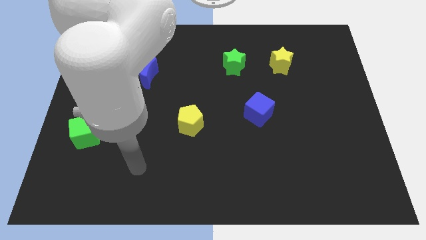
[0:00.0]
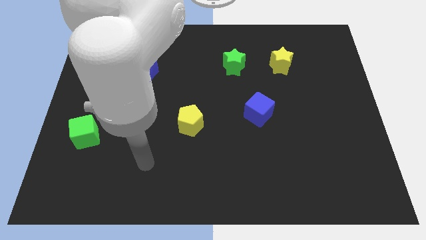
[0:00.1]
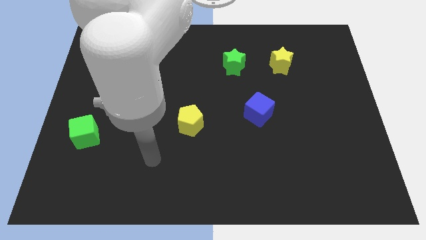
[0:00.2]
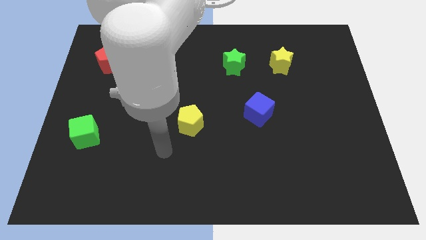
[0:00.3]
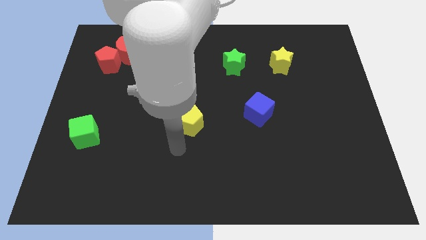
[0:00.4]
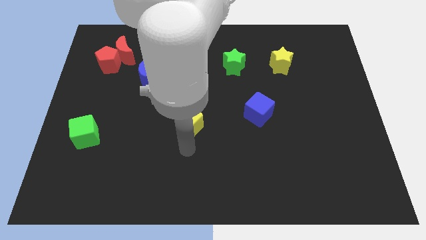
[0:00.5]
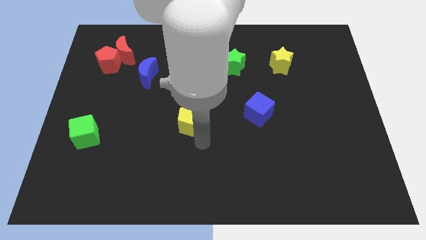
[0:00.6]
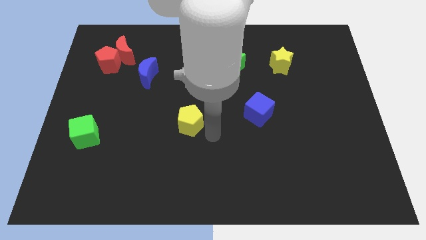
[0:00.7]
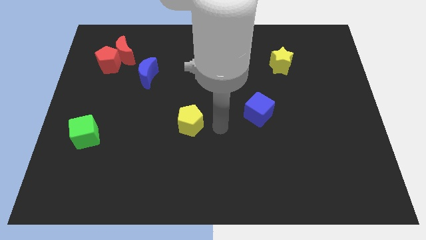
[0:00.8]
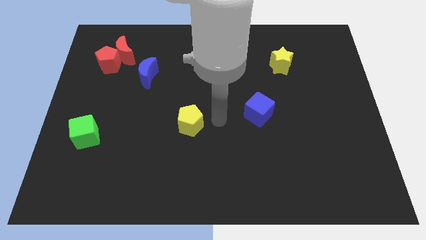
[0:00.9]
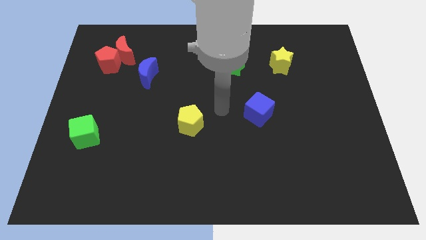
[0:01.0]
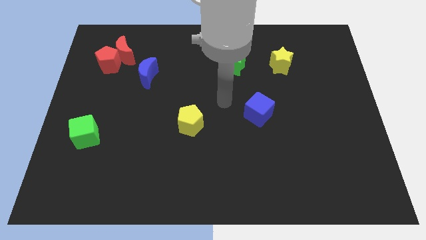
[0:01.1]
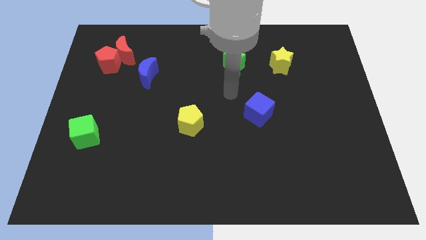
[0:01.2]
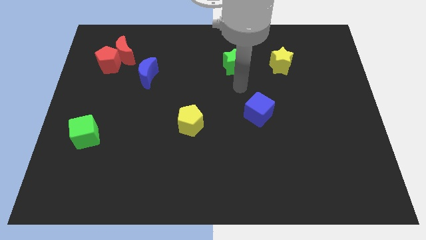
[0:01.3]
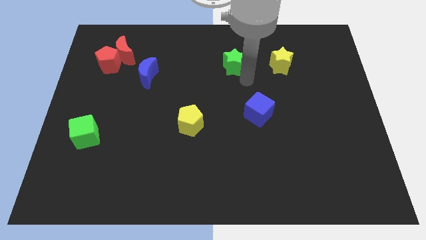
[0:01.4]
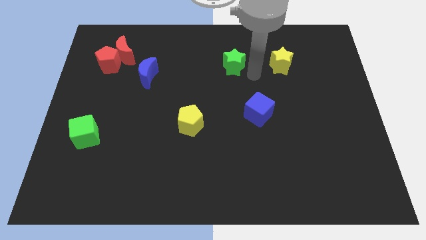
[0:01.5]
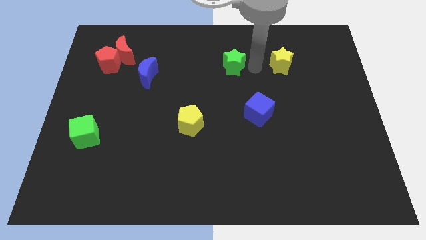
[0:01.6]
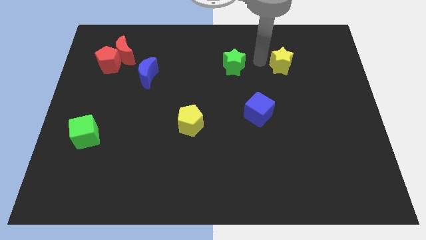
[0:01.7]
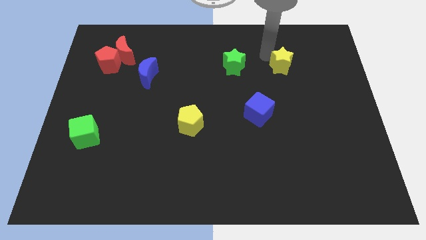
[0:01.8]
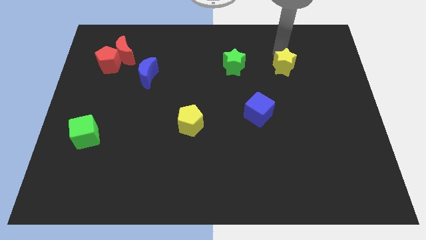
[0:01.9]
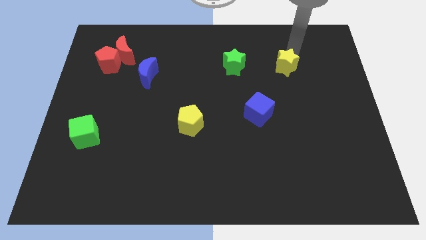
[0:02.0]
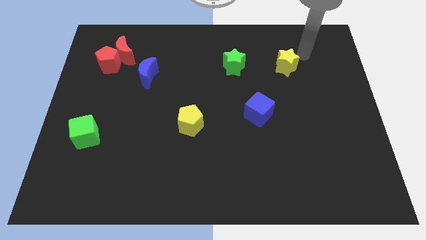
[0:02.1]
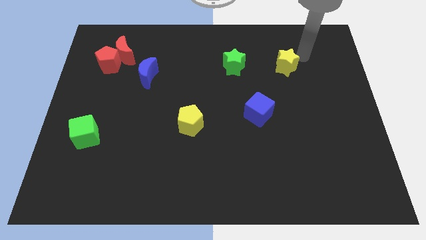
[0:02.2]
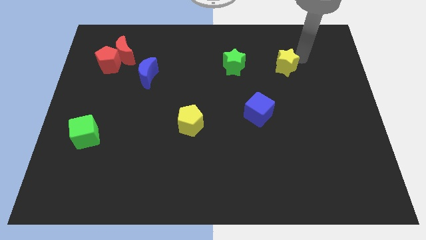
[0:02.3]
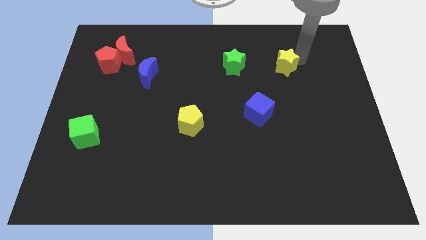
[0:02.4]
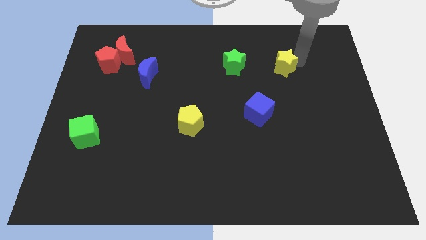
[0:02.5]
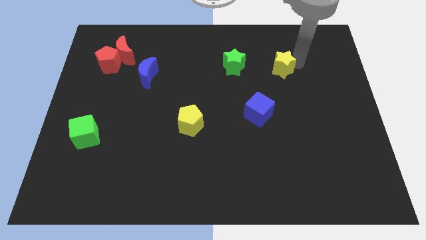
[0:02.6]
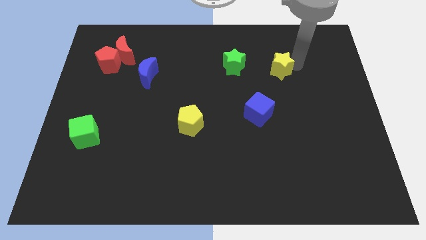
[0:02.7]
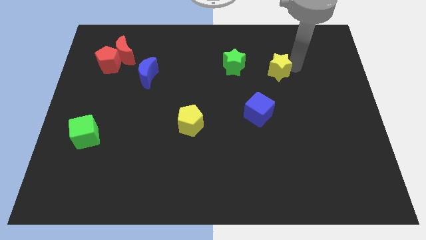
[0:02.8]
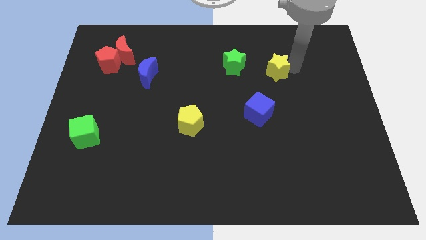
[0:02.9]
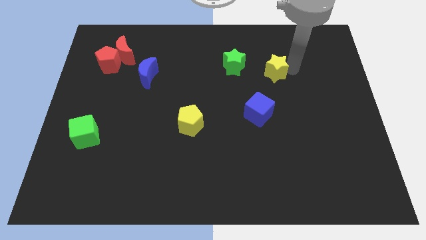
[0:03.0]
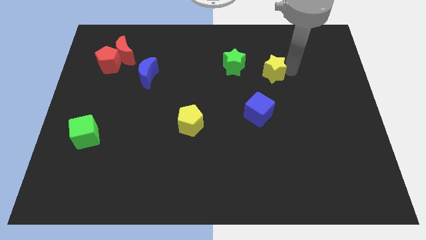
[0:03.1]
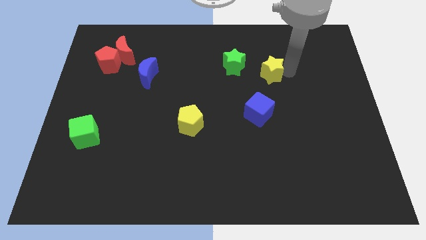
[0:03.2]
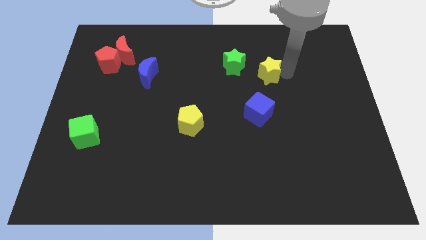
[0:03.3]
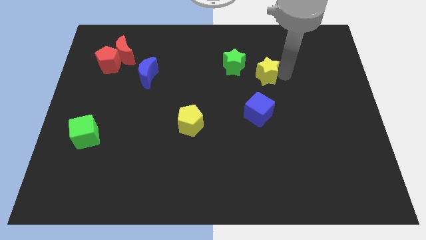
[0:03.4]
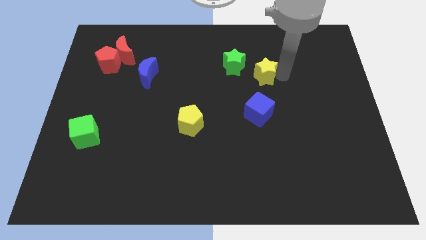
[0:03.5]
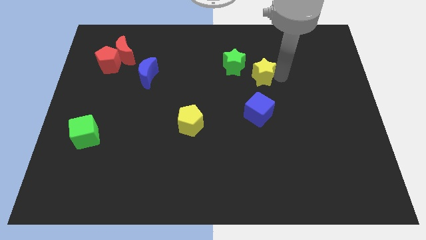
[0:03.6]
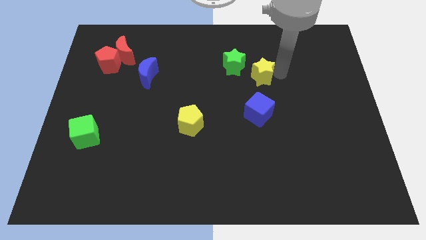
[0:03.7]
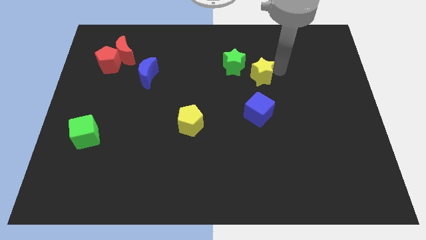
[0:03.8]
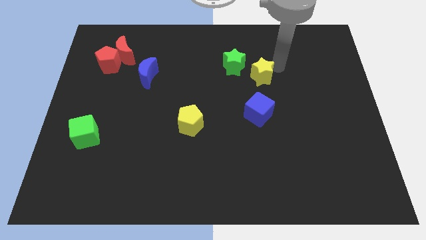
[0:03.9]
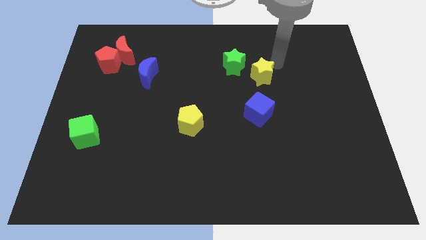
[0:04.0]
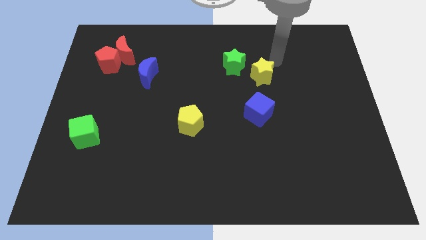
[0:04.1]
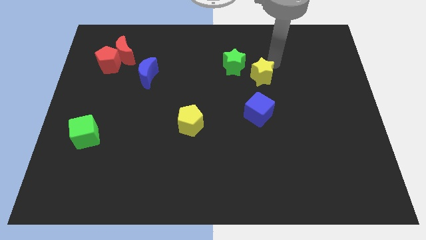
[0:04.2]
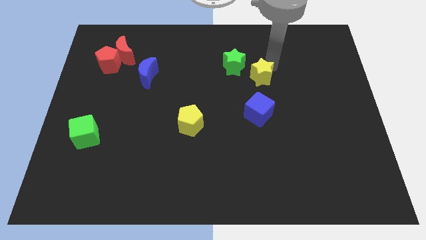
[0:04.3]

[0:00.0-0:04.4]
move the yellow star a little bit downwards and left diagonally

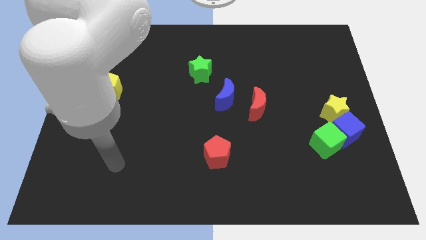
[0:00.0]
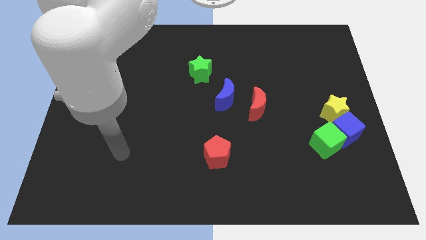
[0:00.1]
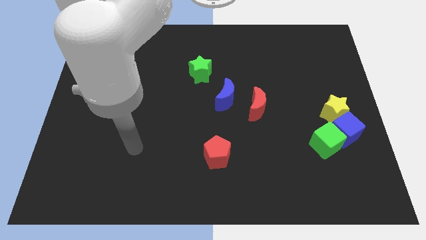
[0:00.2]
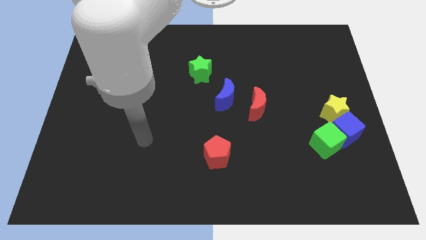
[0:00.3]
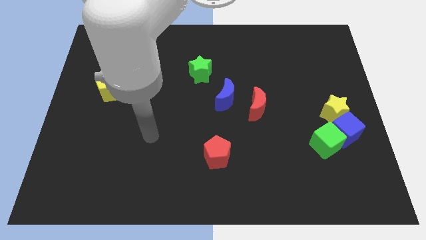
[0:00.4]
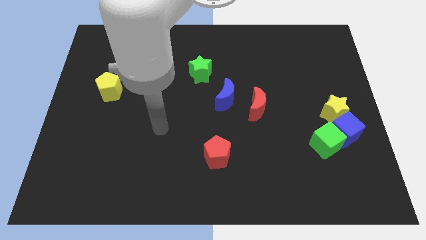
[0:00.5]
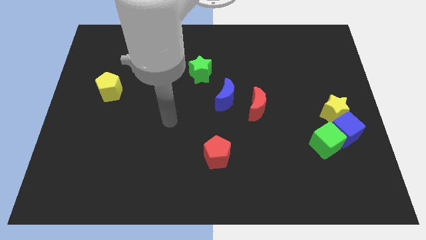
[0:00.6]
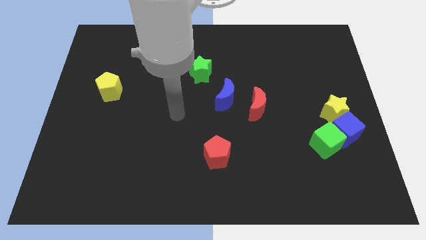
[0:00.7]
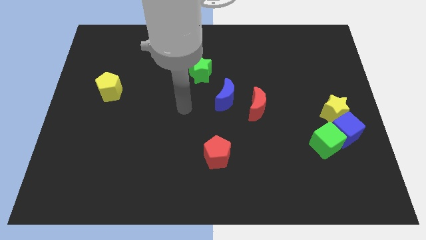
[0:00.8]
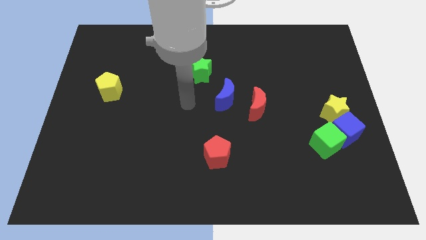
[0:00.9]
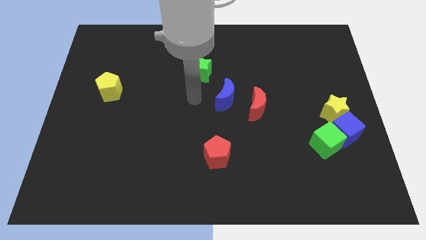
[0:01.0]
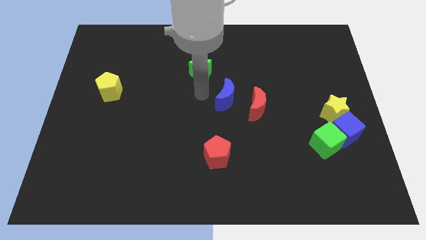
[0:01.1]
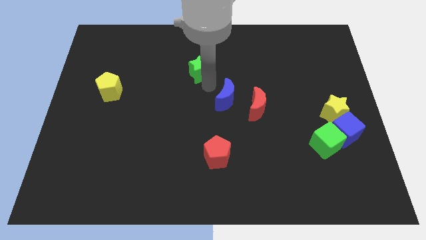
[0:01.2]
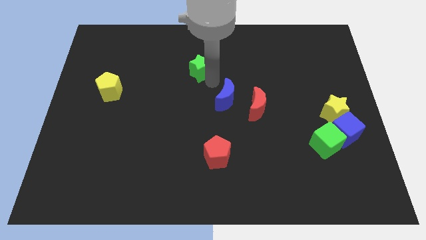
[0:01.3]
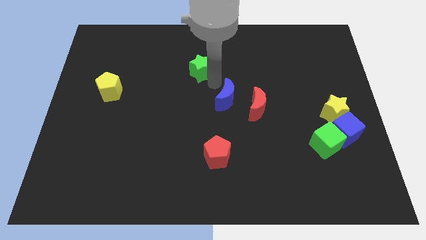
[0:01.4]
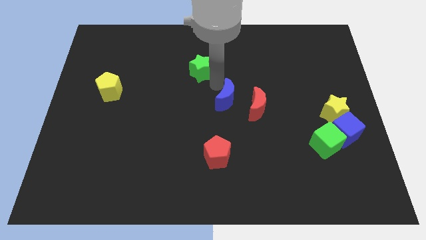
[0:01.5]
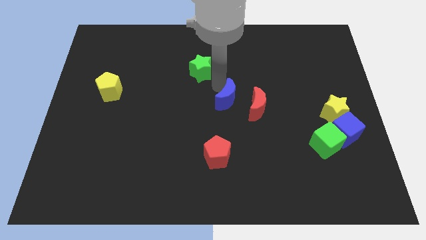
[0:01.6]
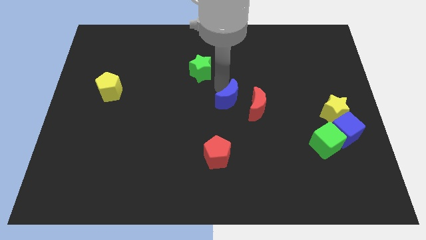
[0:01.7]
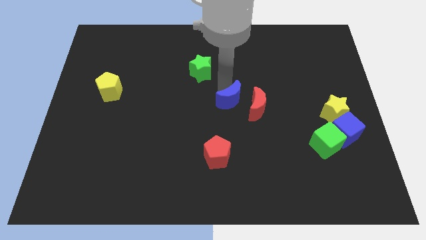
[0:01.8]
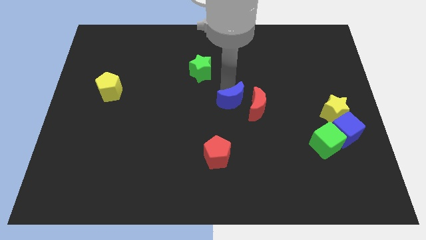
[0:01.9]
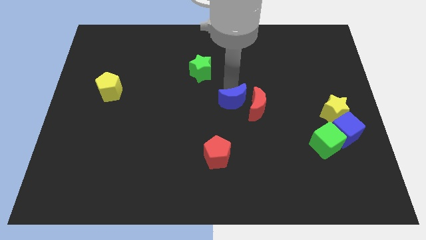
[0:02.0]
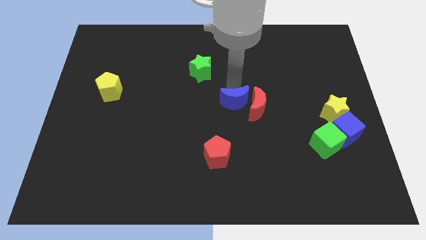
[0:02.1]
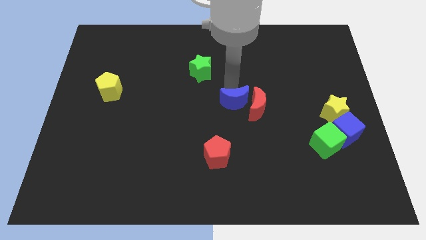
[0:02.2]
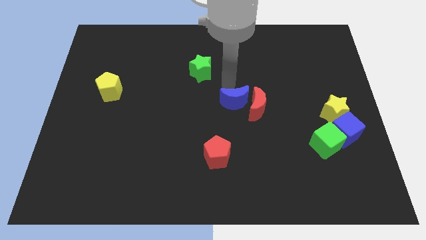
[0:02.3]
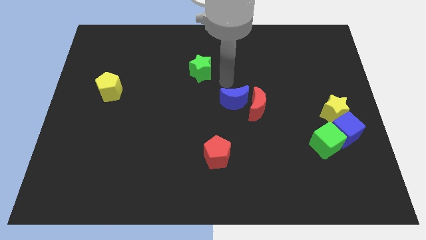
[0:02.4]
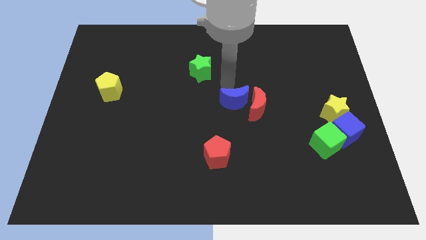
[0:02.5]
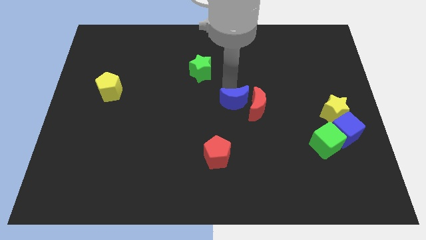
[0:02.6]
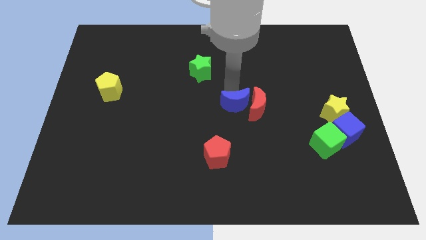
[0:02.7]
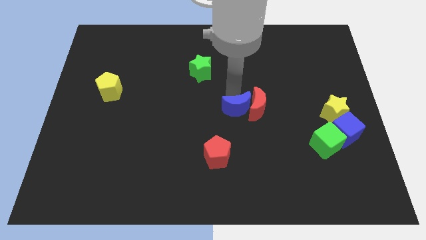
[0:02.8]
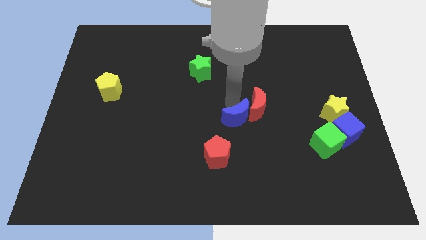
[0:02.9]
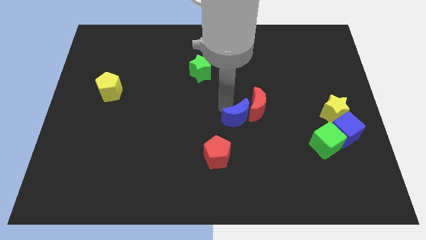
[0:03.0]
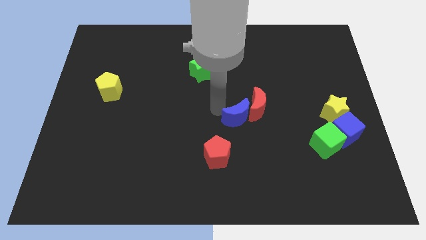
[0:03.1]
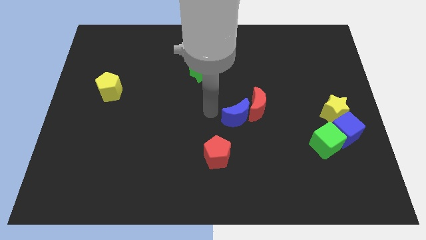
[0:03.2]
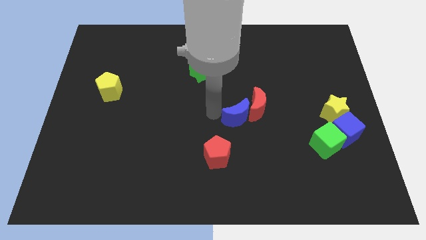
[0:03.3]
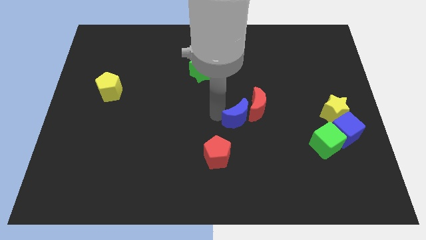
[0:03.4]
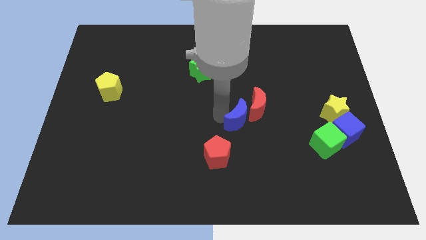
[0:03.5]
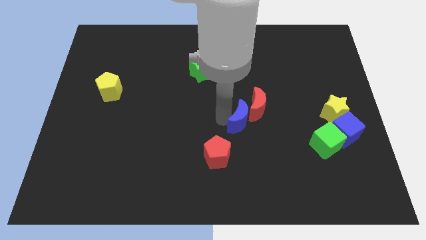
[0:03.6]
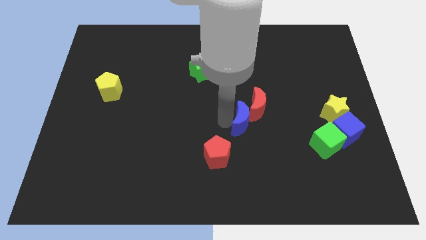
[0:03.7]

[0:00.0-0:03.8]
push the blue moon a bit downwards and right diagonally

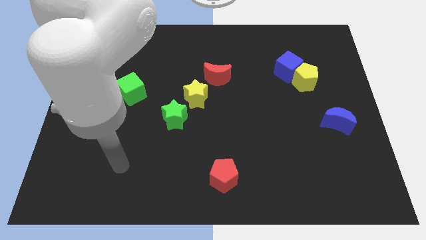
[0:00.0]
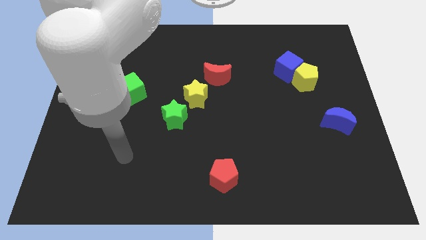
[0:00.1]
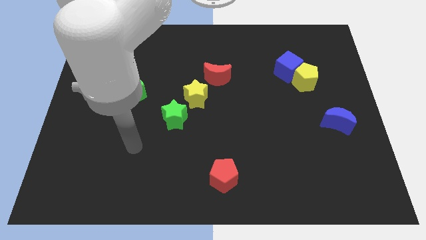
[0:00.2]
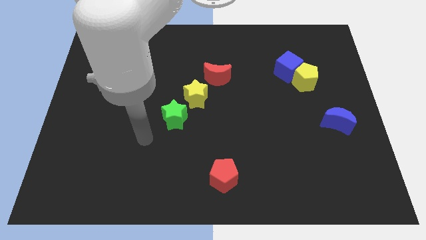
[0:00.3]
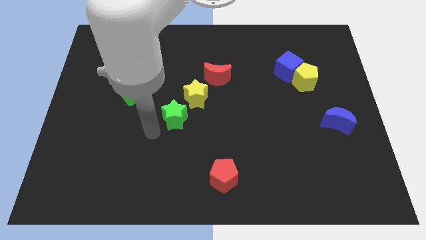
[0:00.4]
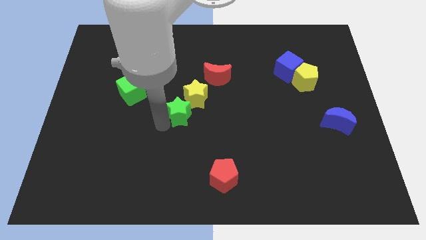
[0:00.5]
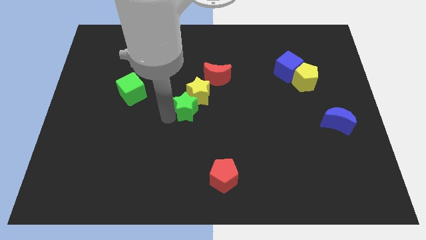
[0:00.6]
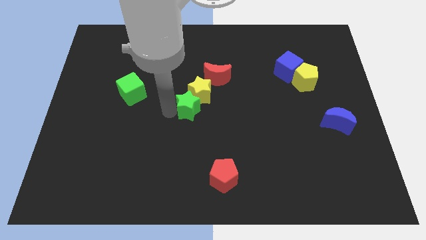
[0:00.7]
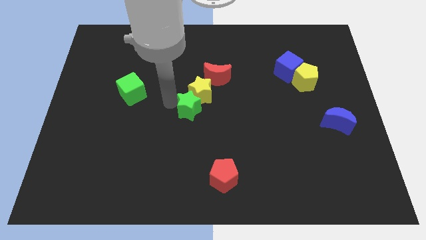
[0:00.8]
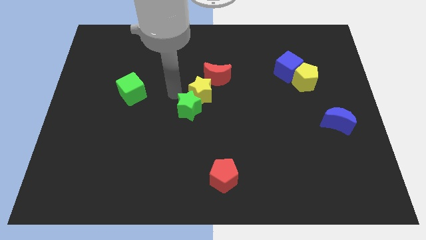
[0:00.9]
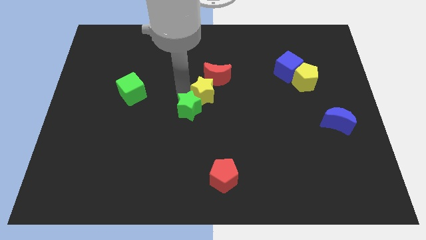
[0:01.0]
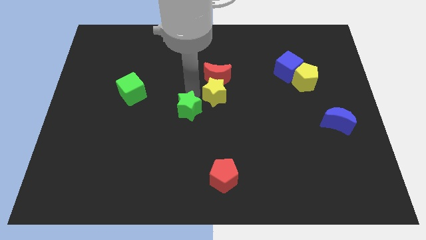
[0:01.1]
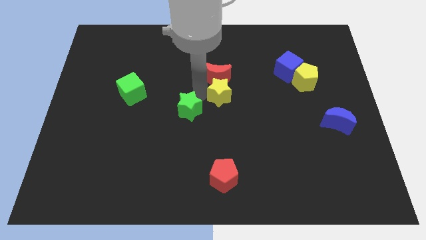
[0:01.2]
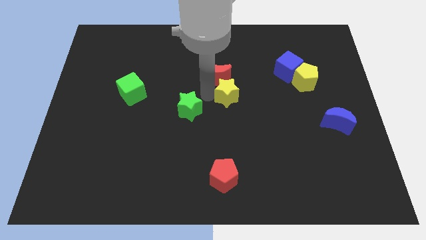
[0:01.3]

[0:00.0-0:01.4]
slide the yellow star right a little bit
